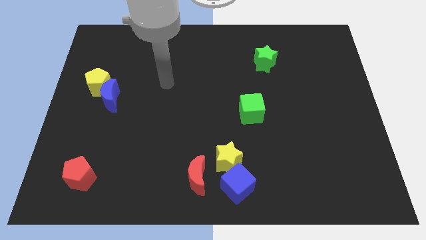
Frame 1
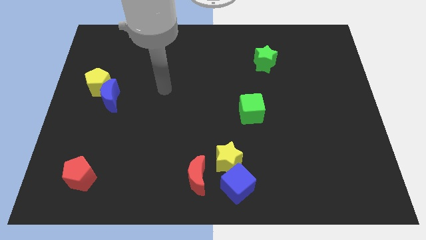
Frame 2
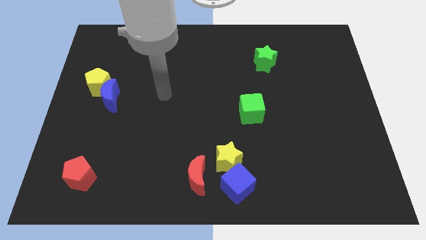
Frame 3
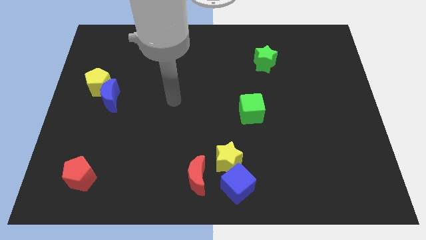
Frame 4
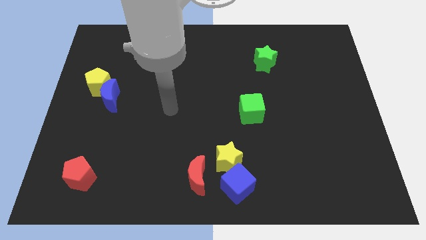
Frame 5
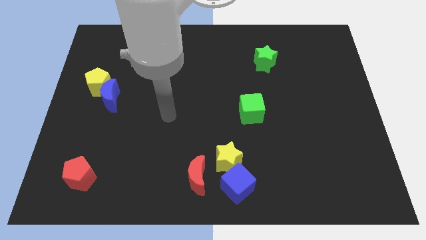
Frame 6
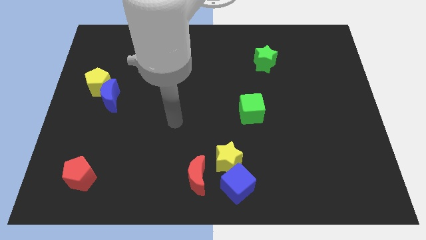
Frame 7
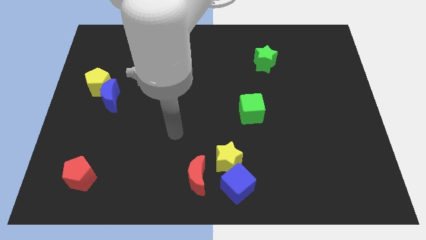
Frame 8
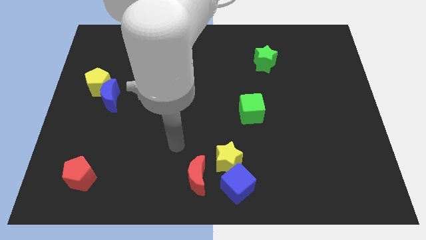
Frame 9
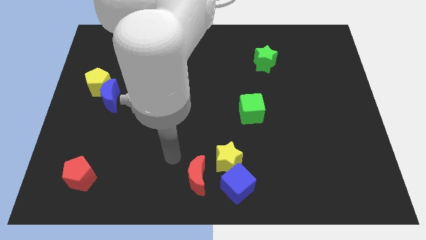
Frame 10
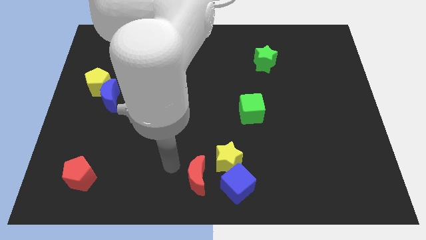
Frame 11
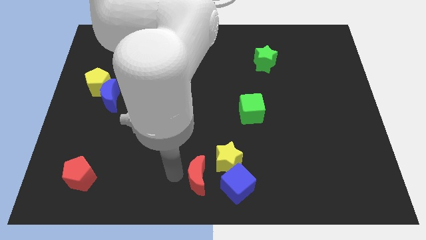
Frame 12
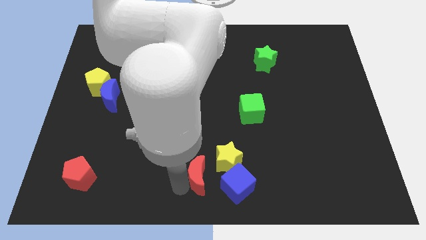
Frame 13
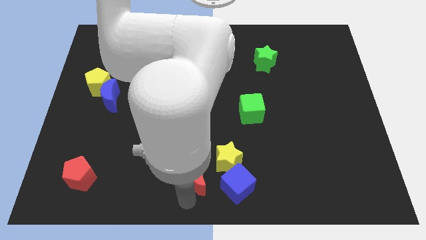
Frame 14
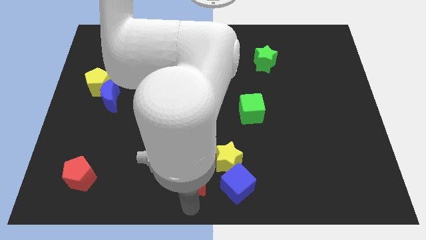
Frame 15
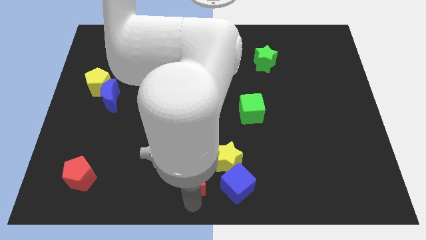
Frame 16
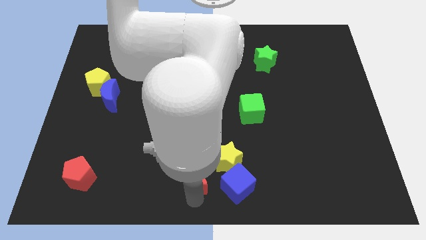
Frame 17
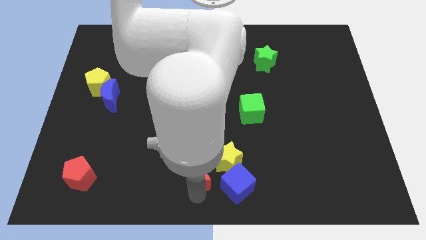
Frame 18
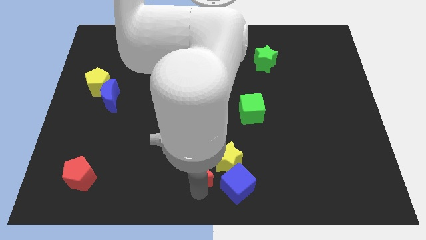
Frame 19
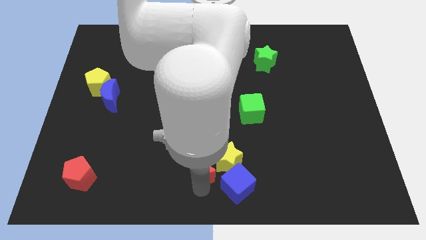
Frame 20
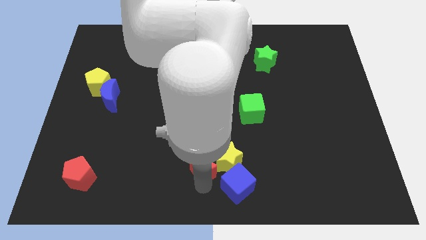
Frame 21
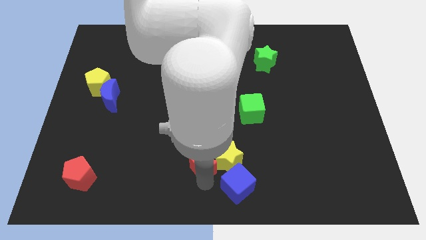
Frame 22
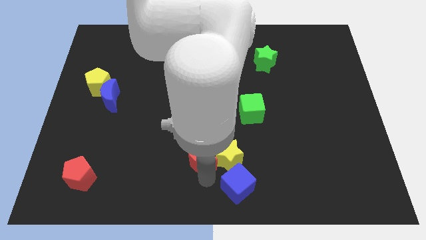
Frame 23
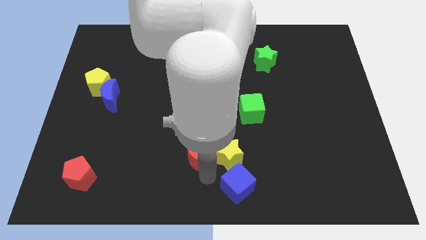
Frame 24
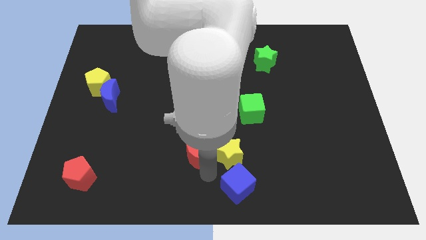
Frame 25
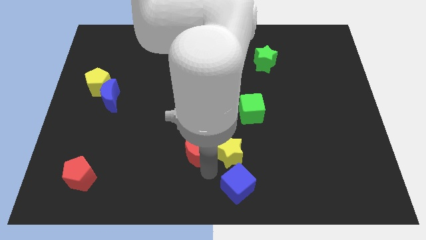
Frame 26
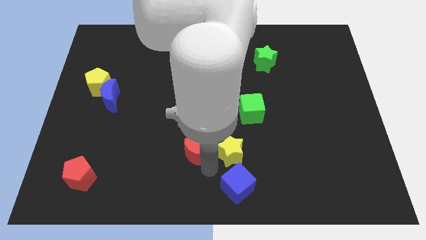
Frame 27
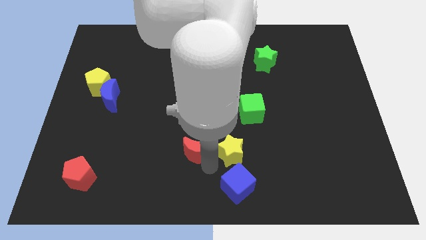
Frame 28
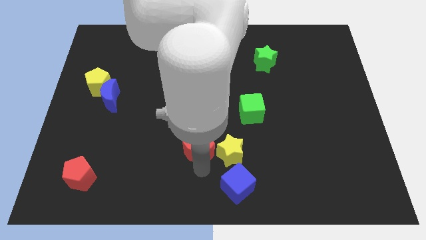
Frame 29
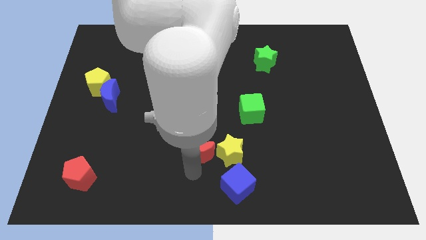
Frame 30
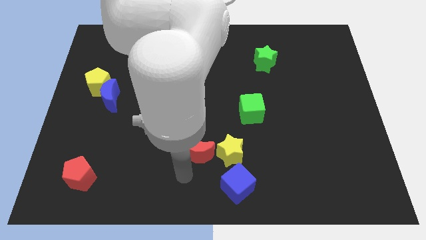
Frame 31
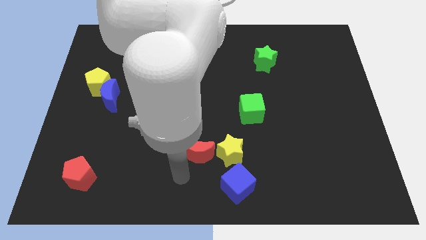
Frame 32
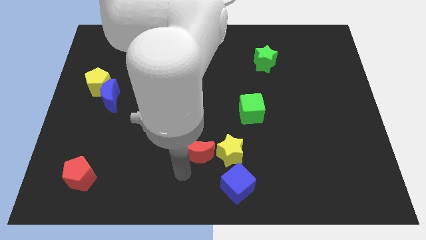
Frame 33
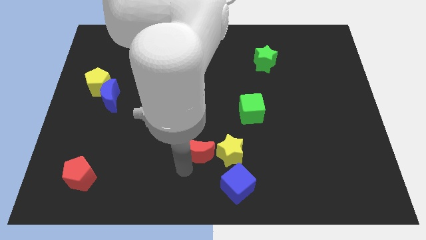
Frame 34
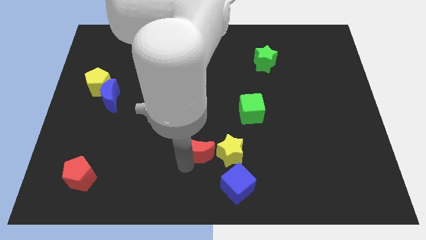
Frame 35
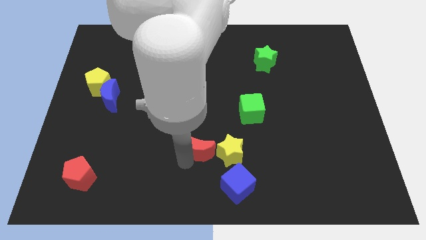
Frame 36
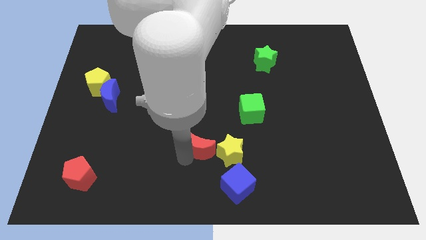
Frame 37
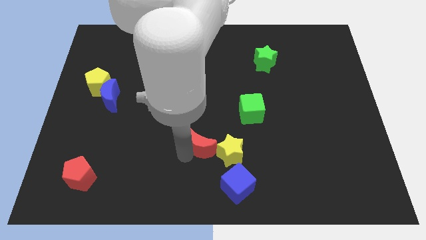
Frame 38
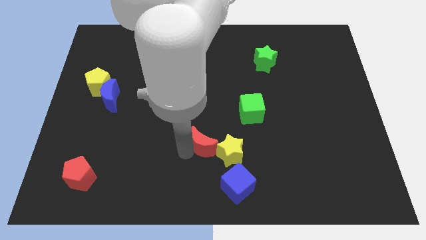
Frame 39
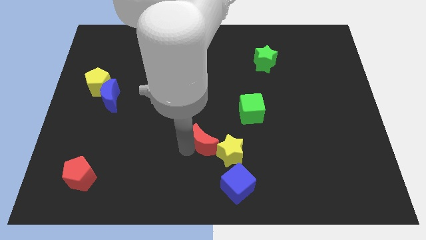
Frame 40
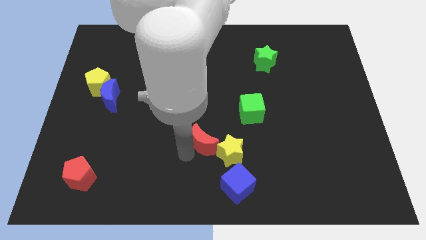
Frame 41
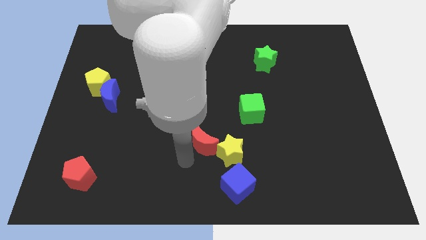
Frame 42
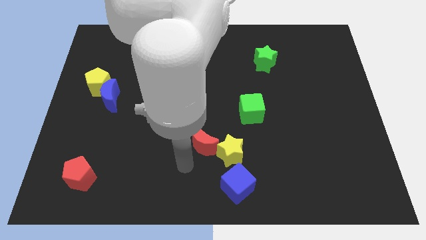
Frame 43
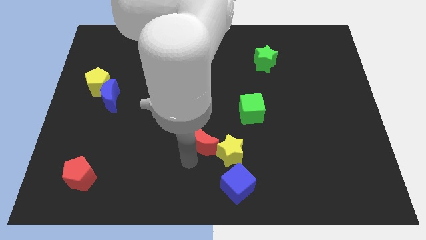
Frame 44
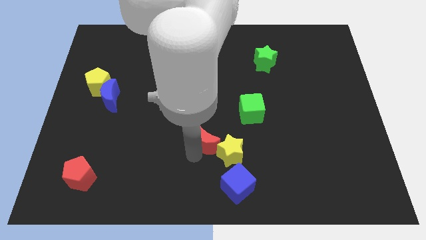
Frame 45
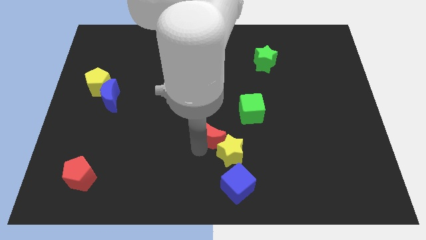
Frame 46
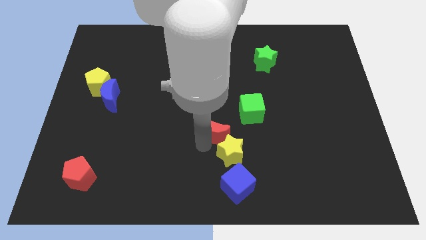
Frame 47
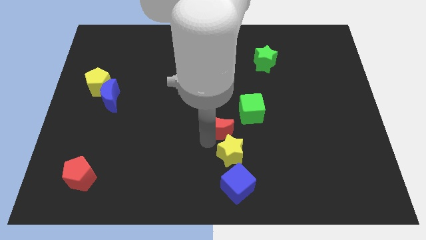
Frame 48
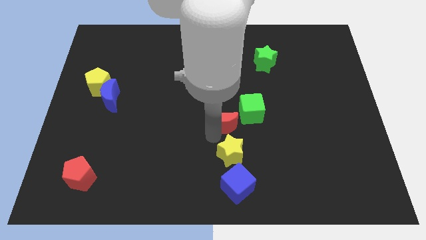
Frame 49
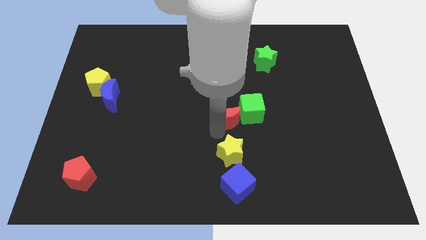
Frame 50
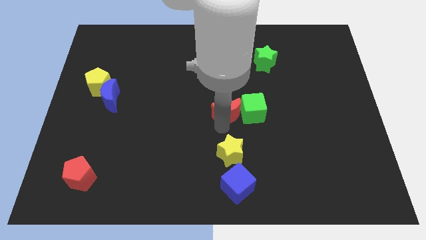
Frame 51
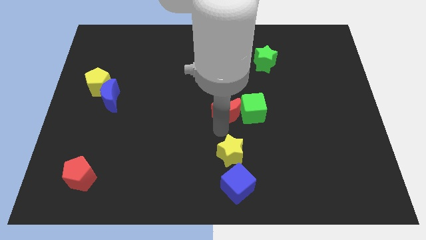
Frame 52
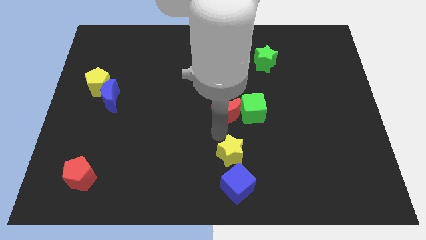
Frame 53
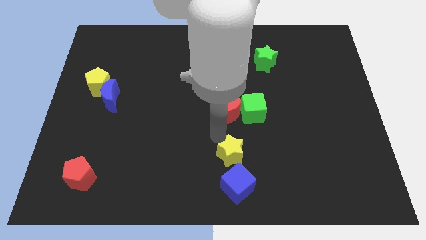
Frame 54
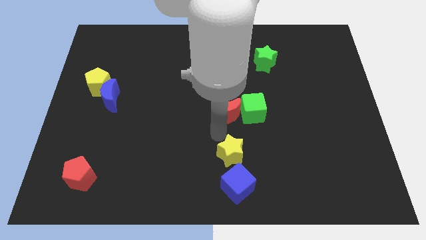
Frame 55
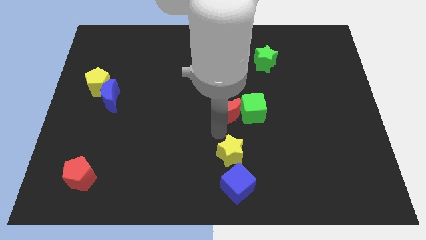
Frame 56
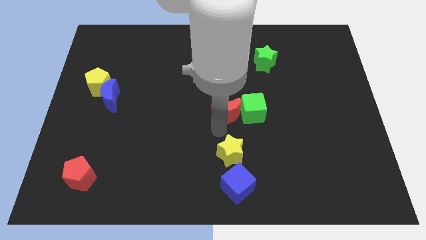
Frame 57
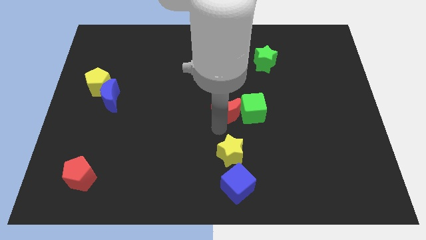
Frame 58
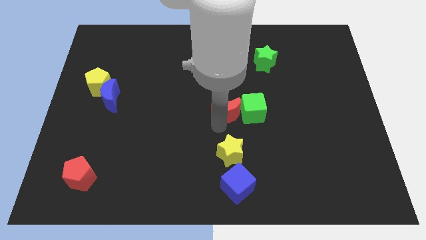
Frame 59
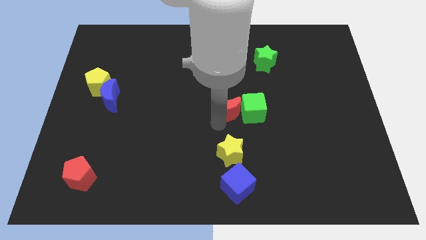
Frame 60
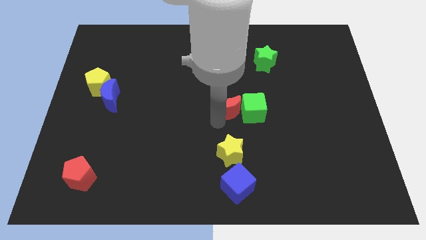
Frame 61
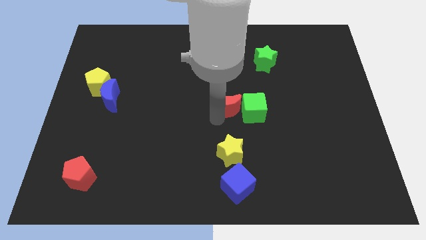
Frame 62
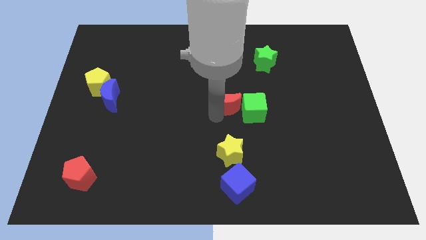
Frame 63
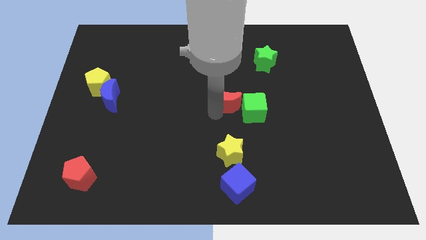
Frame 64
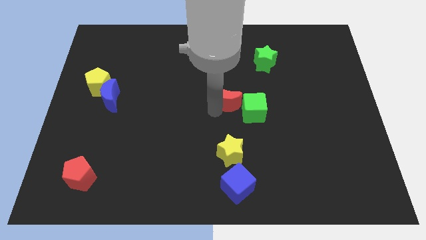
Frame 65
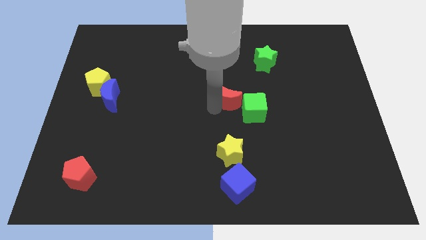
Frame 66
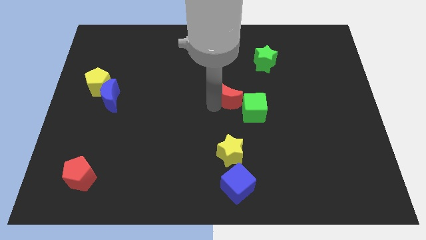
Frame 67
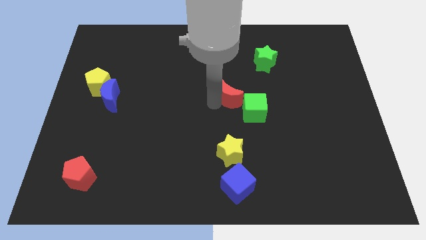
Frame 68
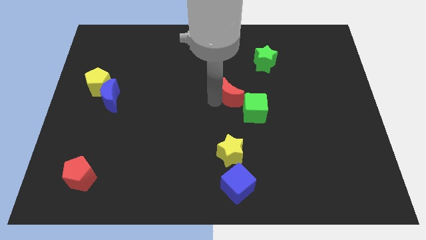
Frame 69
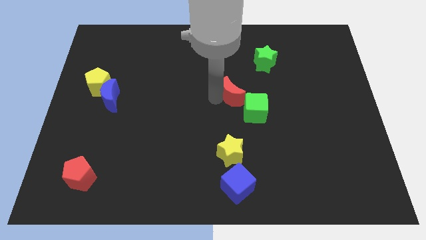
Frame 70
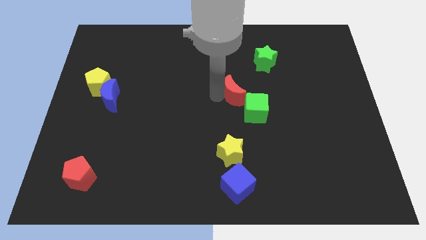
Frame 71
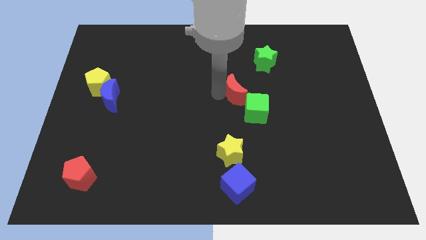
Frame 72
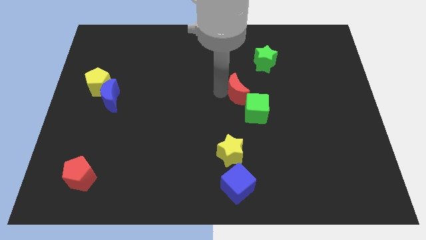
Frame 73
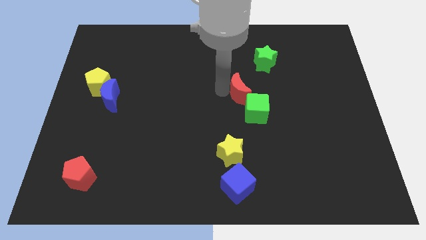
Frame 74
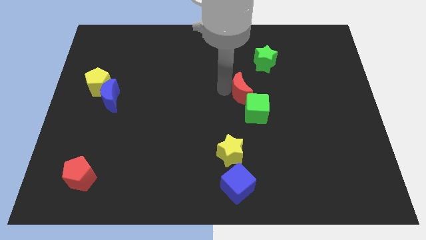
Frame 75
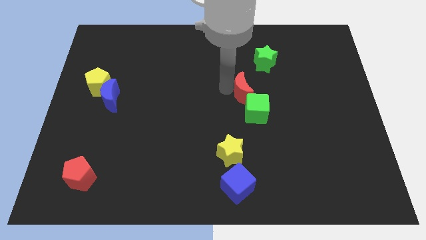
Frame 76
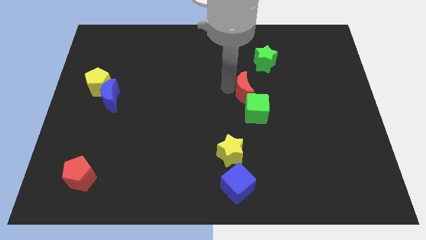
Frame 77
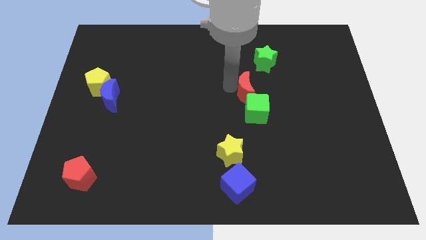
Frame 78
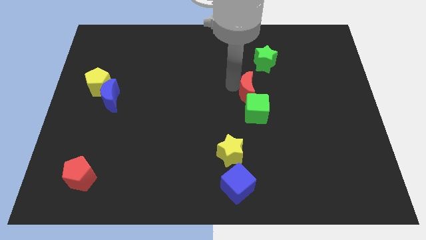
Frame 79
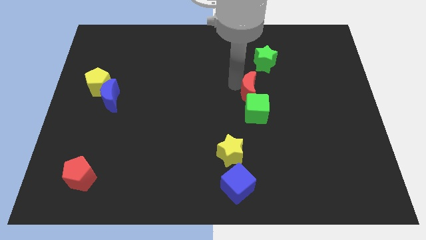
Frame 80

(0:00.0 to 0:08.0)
put the red moon to the bottom of the green star

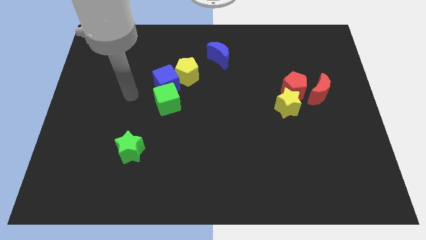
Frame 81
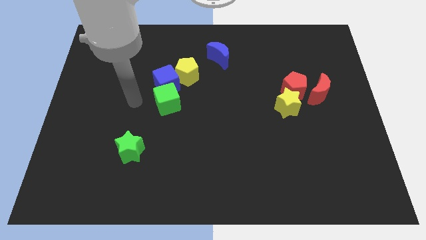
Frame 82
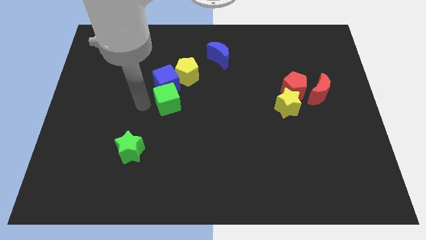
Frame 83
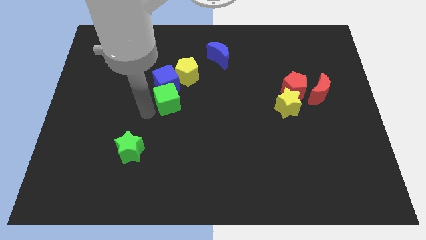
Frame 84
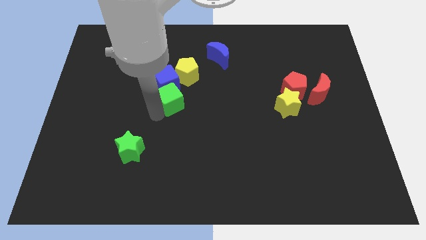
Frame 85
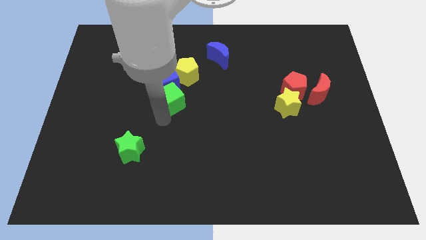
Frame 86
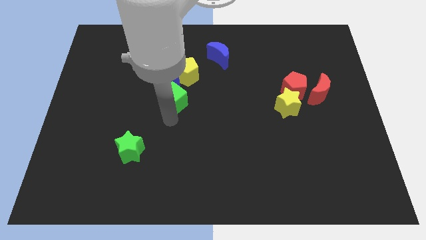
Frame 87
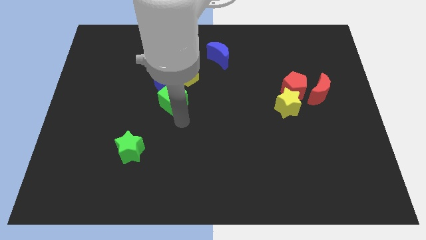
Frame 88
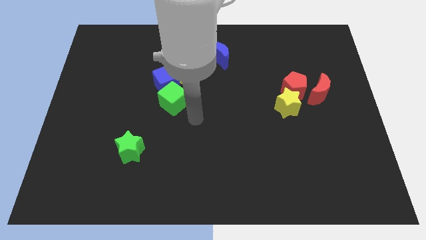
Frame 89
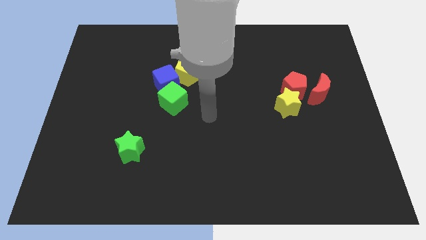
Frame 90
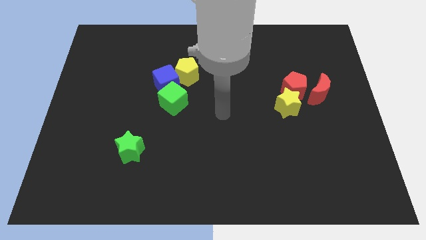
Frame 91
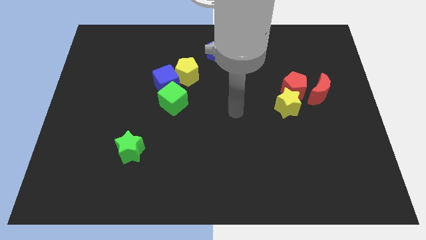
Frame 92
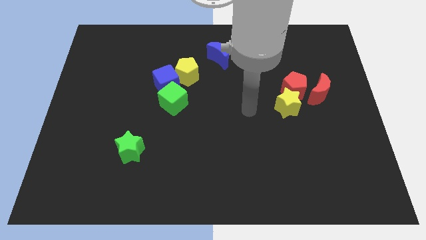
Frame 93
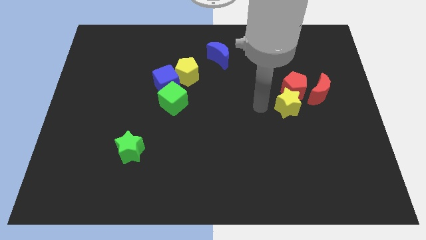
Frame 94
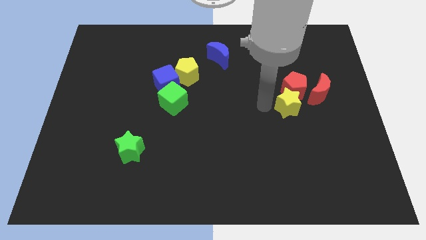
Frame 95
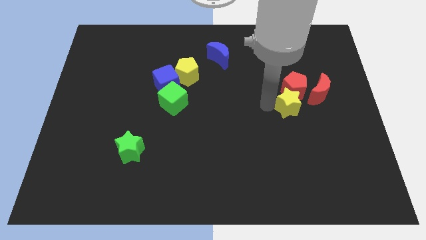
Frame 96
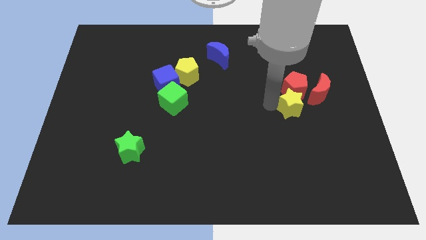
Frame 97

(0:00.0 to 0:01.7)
put the yellow star diagonally down and to the right of the red pentagon
